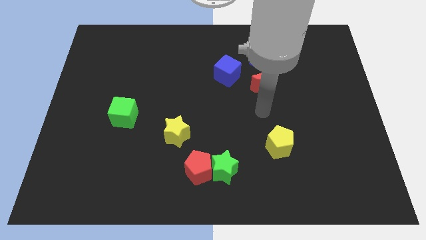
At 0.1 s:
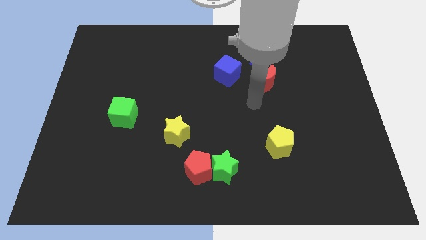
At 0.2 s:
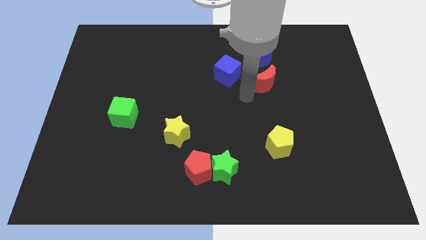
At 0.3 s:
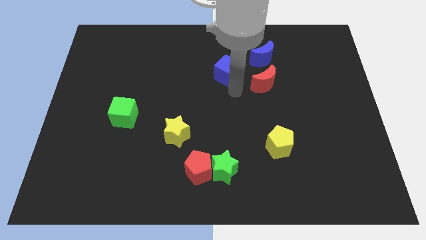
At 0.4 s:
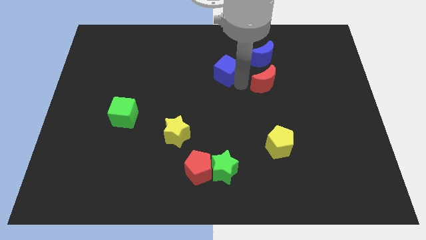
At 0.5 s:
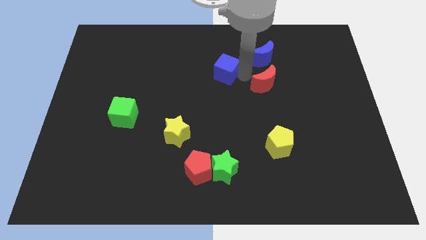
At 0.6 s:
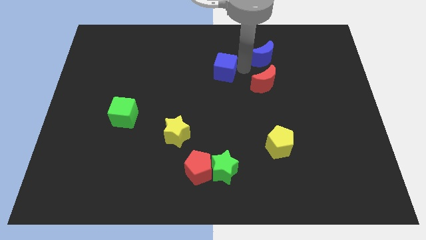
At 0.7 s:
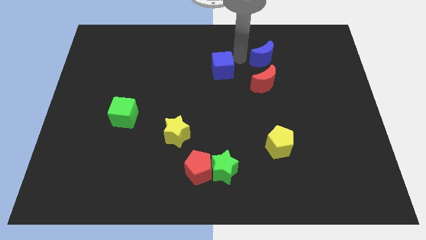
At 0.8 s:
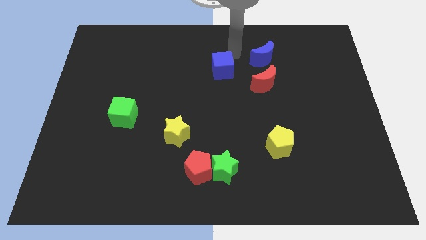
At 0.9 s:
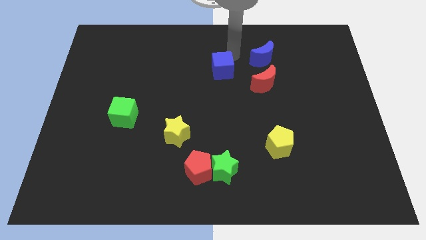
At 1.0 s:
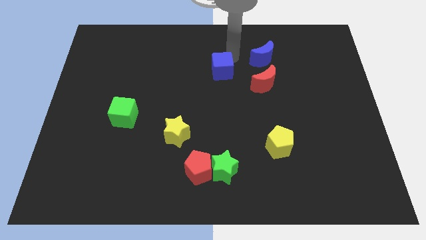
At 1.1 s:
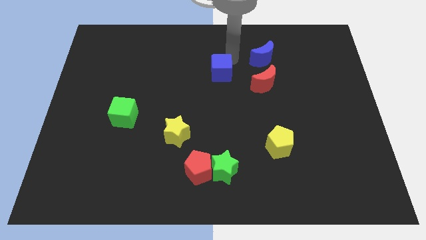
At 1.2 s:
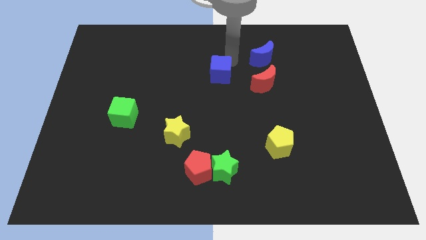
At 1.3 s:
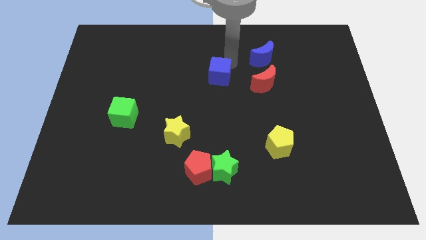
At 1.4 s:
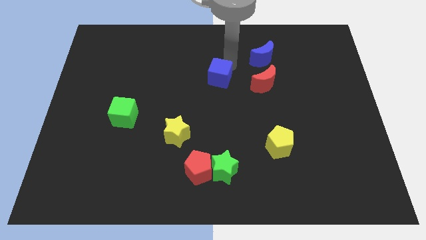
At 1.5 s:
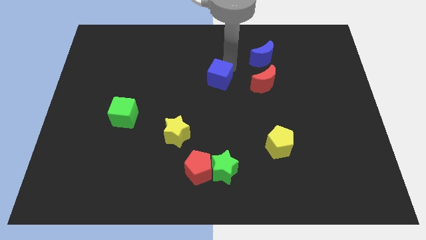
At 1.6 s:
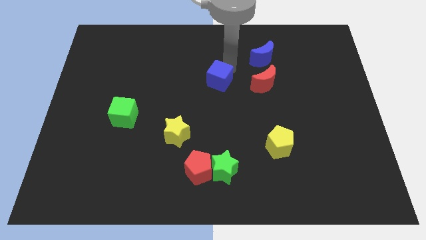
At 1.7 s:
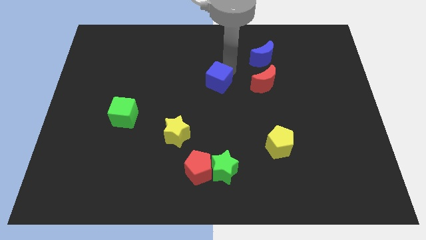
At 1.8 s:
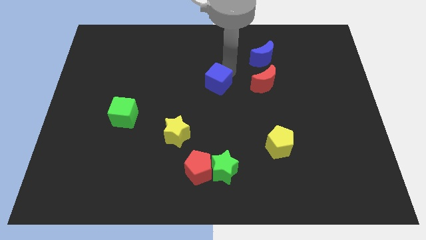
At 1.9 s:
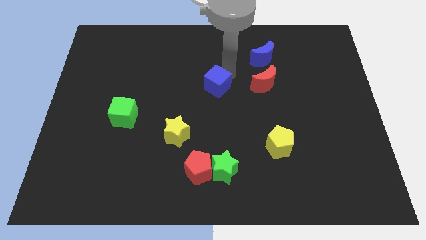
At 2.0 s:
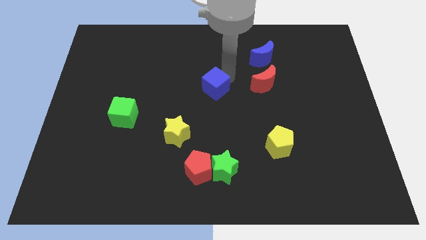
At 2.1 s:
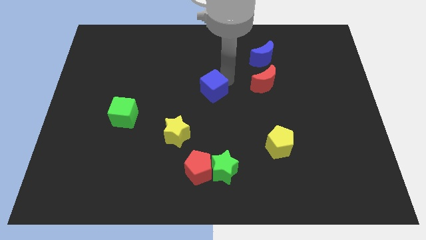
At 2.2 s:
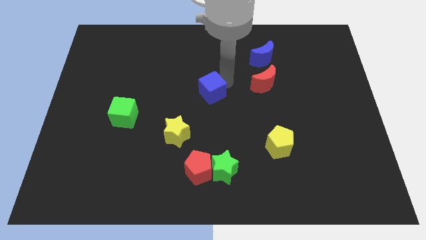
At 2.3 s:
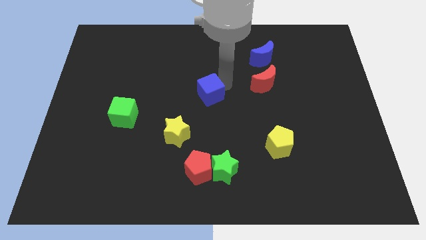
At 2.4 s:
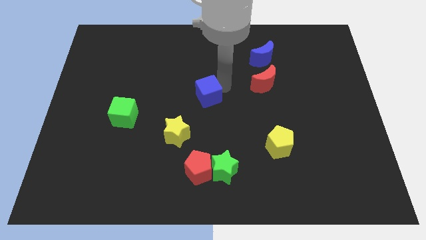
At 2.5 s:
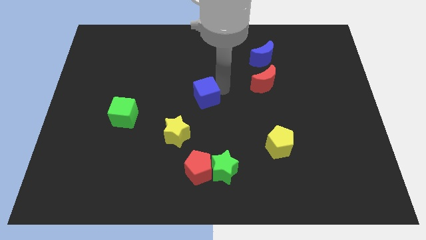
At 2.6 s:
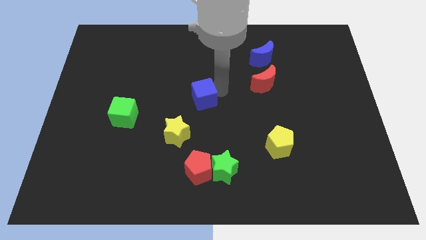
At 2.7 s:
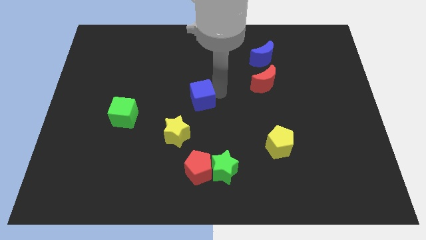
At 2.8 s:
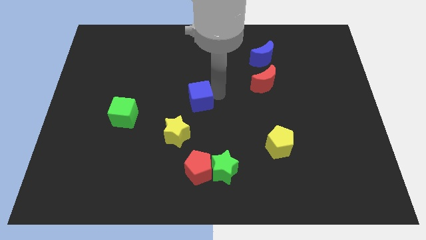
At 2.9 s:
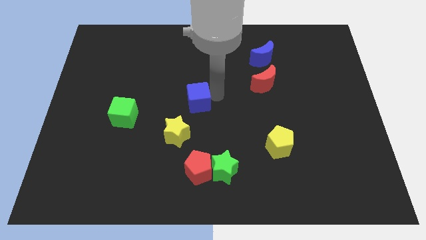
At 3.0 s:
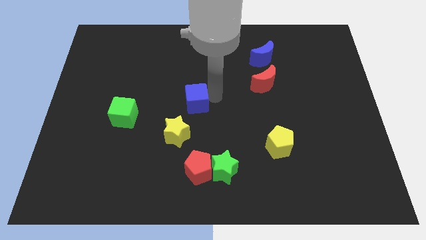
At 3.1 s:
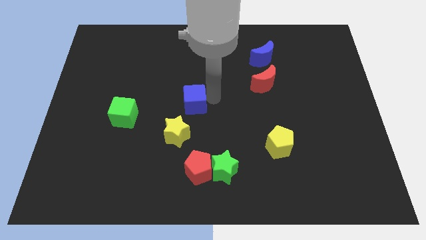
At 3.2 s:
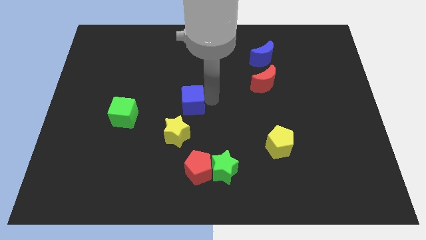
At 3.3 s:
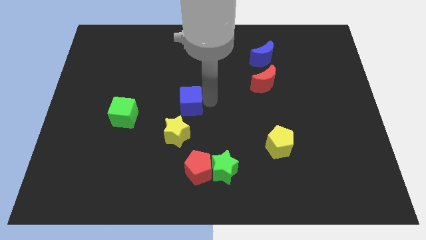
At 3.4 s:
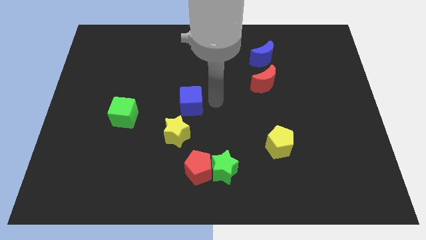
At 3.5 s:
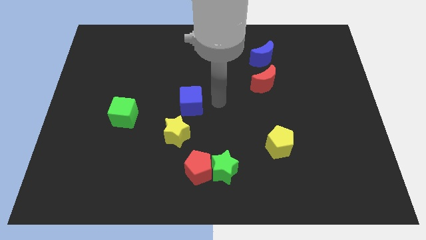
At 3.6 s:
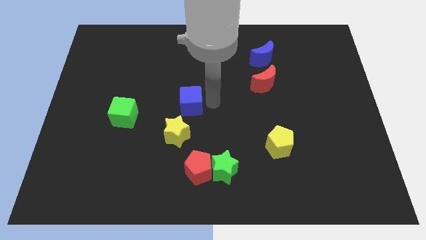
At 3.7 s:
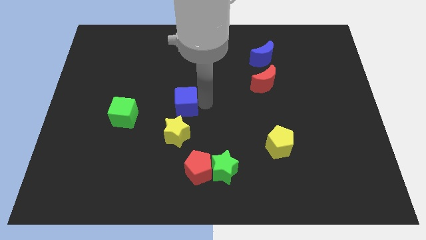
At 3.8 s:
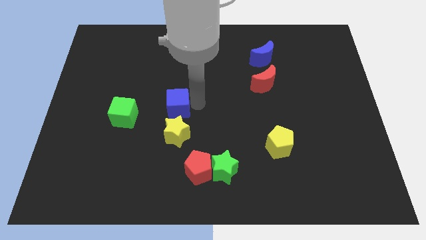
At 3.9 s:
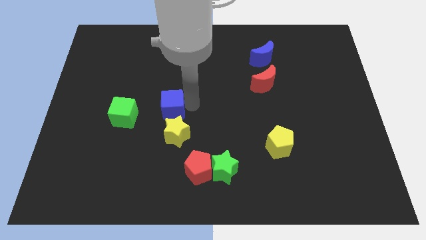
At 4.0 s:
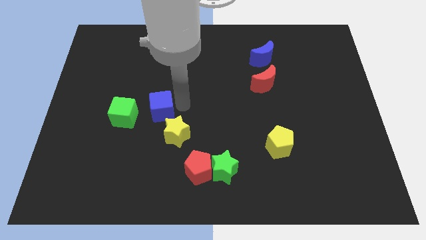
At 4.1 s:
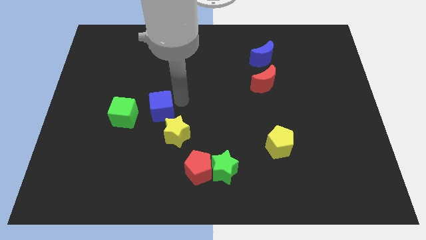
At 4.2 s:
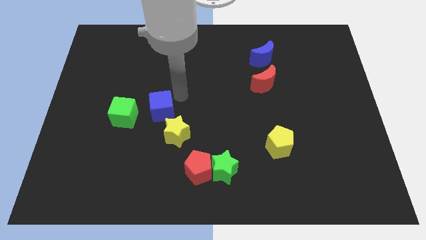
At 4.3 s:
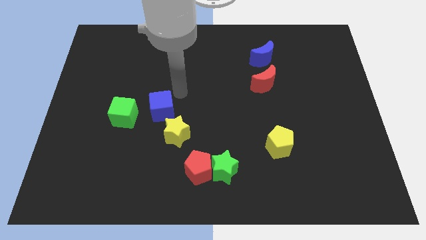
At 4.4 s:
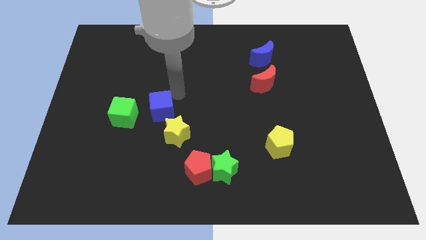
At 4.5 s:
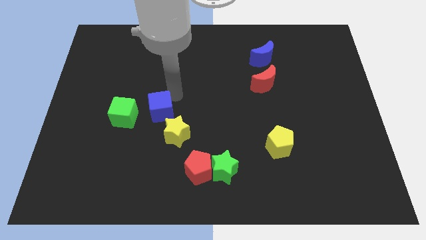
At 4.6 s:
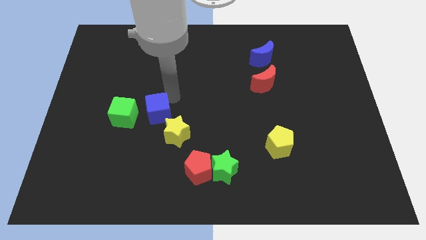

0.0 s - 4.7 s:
push the blue cube down and left diagonally

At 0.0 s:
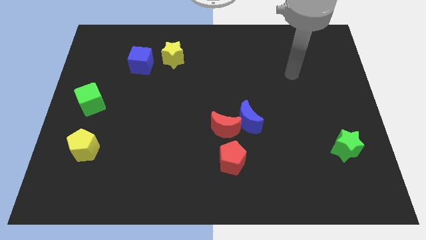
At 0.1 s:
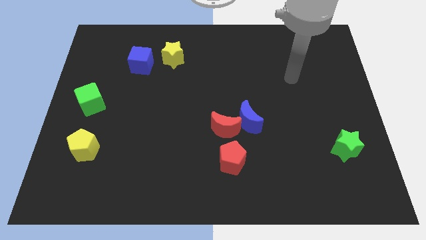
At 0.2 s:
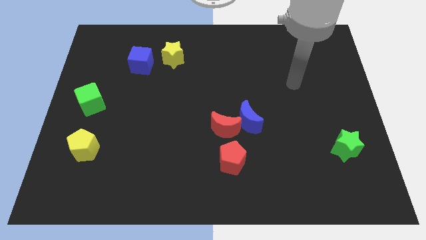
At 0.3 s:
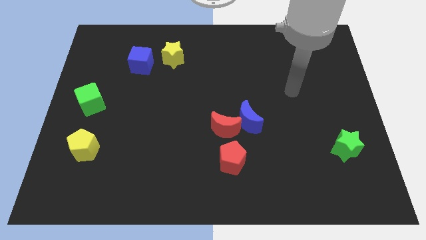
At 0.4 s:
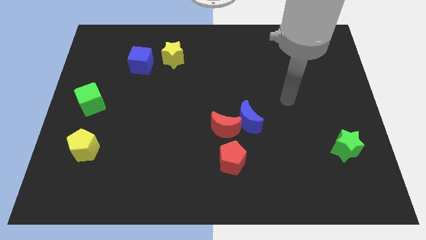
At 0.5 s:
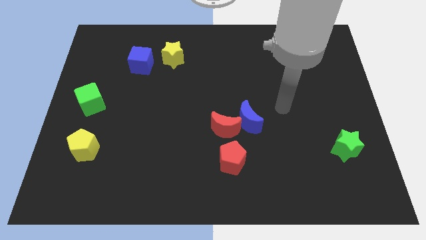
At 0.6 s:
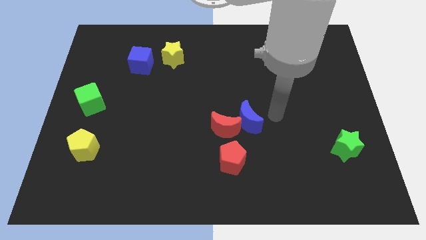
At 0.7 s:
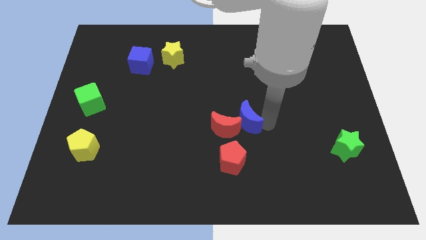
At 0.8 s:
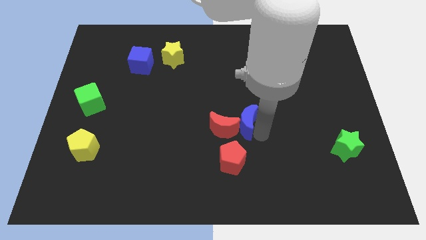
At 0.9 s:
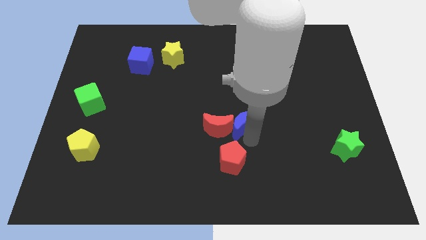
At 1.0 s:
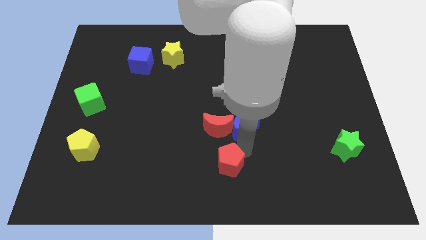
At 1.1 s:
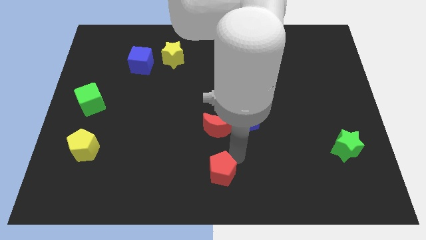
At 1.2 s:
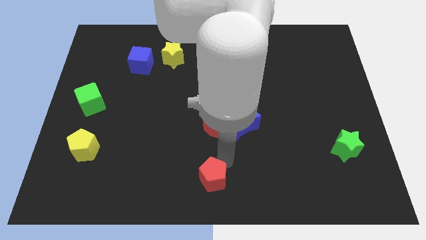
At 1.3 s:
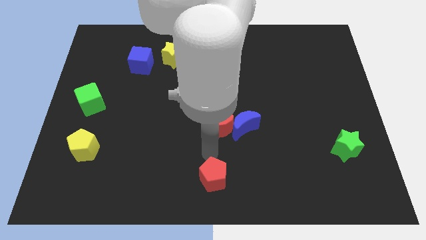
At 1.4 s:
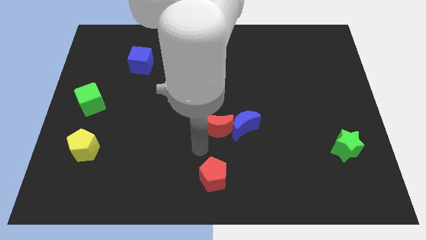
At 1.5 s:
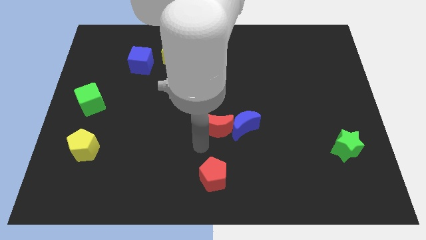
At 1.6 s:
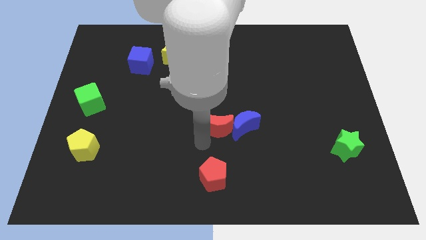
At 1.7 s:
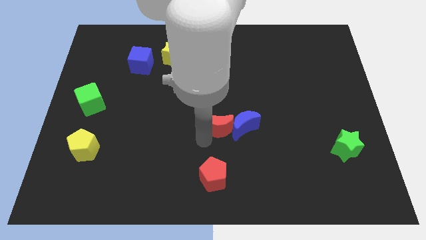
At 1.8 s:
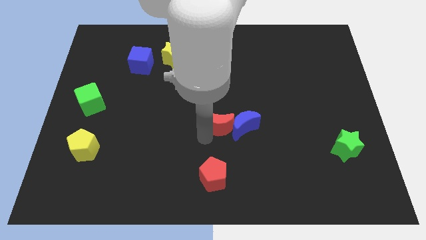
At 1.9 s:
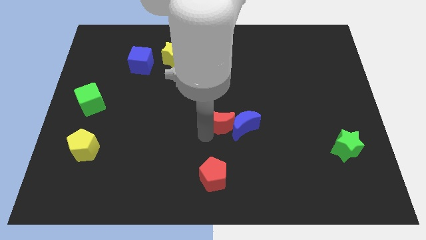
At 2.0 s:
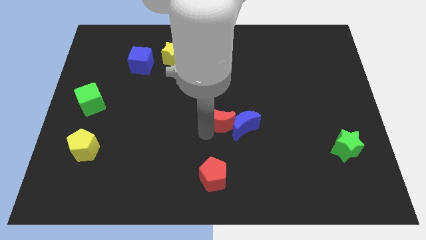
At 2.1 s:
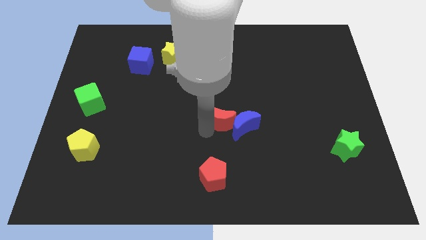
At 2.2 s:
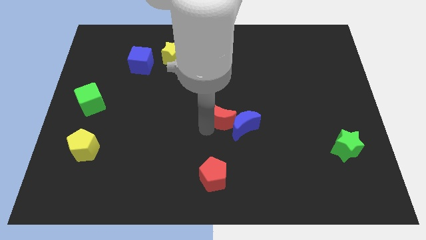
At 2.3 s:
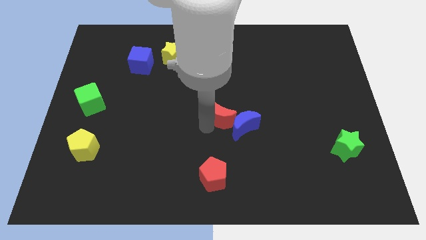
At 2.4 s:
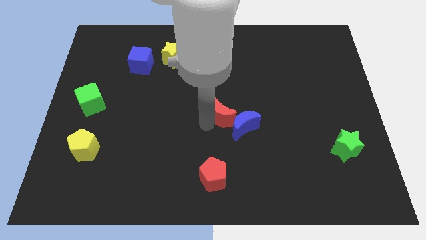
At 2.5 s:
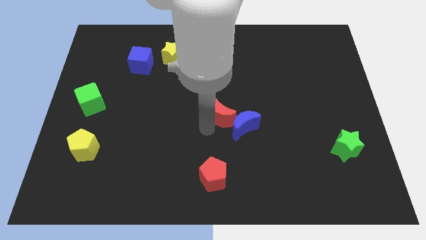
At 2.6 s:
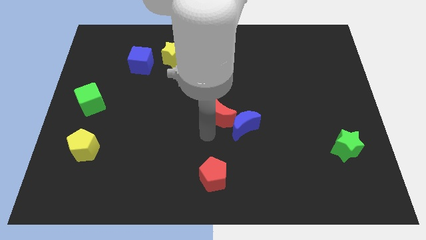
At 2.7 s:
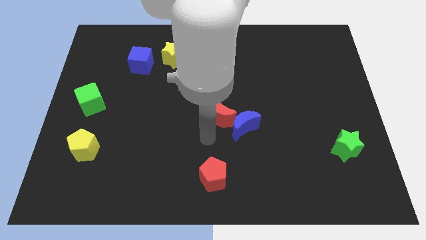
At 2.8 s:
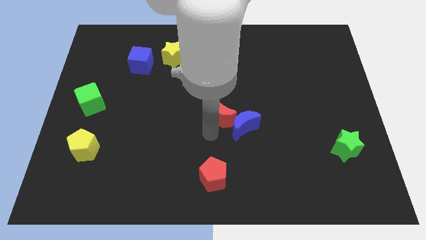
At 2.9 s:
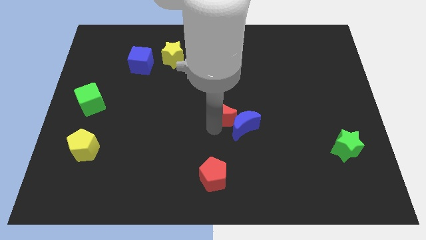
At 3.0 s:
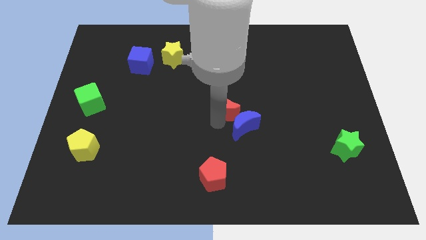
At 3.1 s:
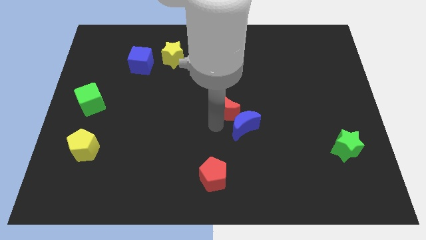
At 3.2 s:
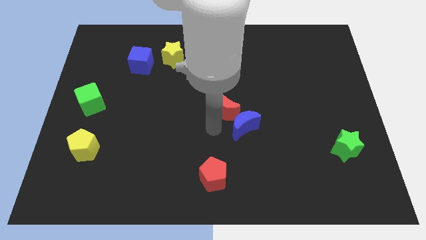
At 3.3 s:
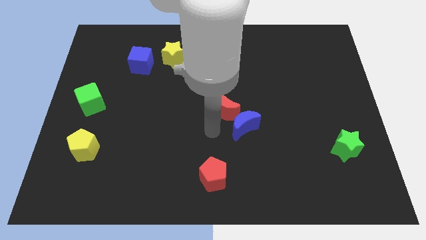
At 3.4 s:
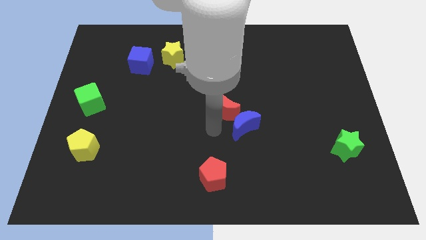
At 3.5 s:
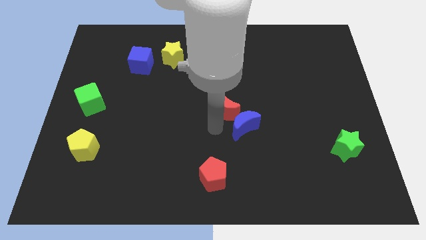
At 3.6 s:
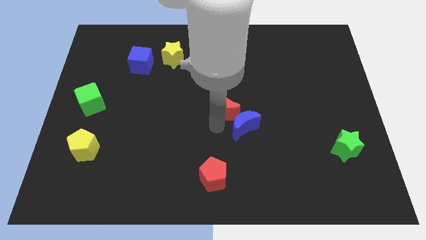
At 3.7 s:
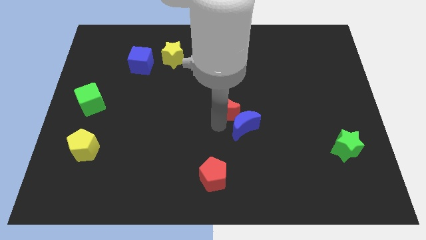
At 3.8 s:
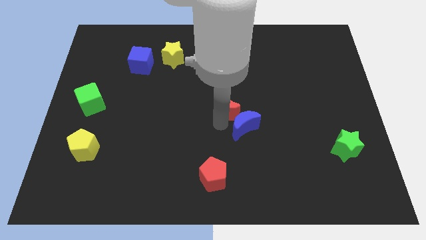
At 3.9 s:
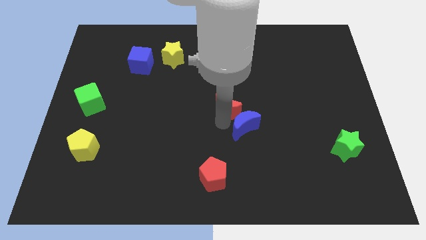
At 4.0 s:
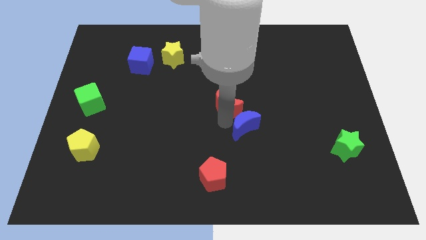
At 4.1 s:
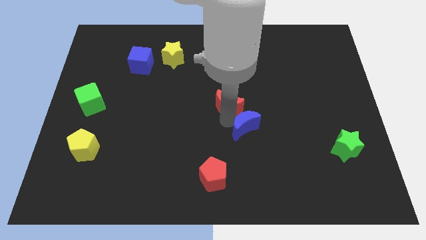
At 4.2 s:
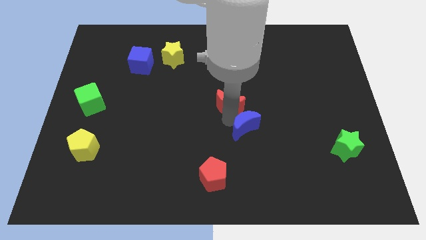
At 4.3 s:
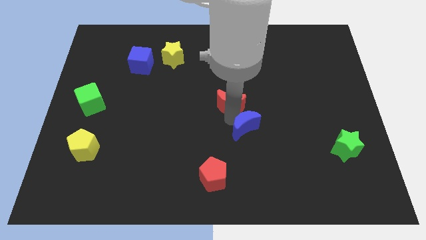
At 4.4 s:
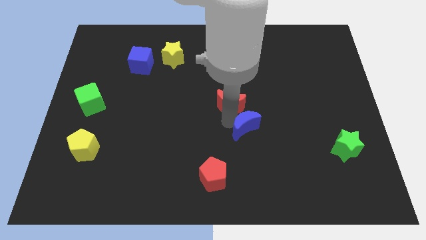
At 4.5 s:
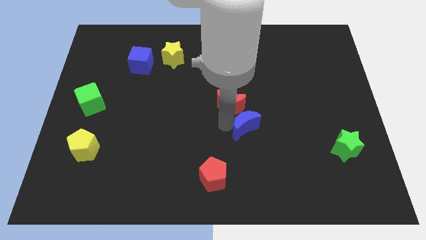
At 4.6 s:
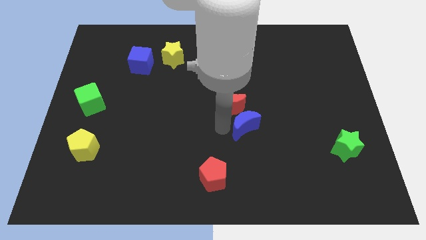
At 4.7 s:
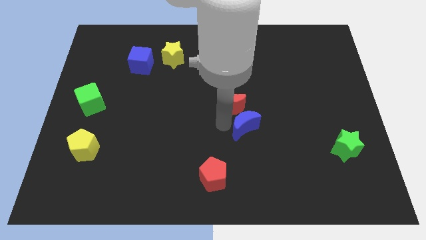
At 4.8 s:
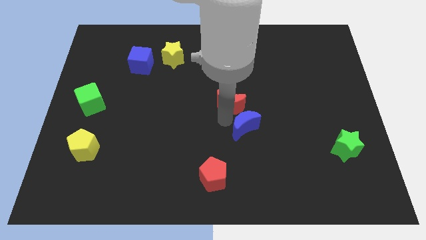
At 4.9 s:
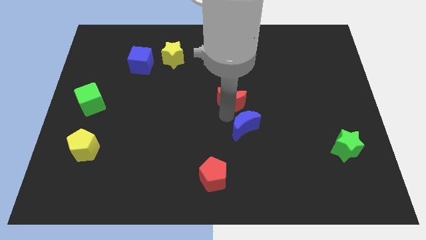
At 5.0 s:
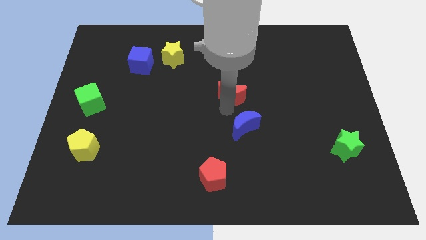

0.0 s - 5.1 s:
push the red moon upwards and to the right diagonally slightly
